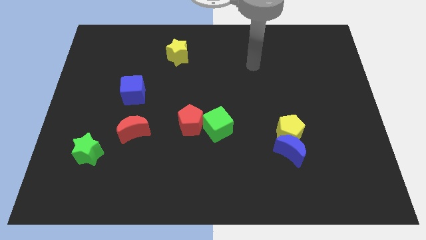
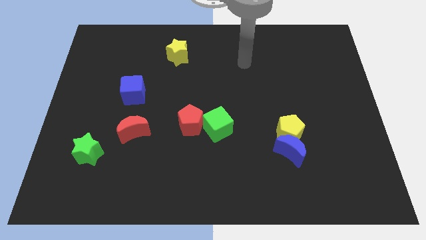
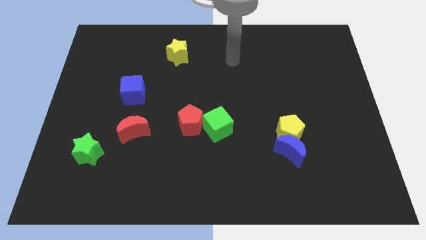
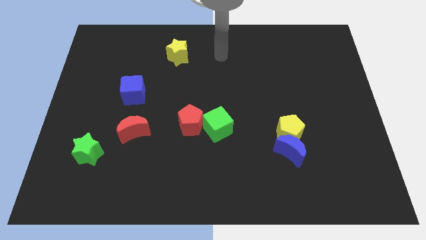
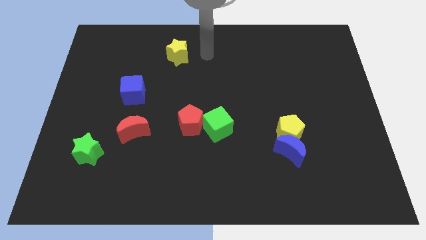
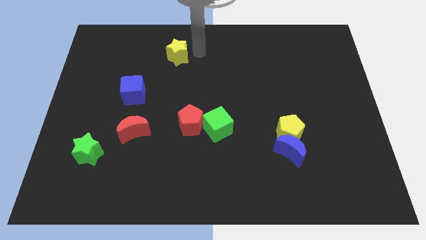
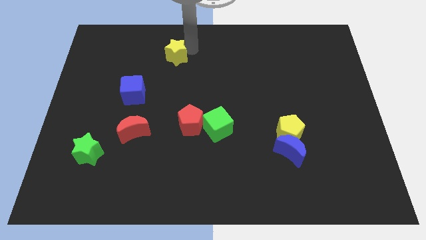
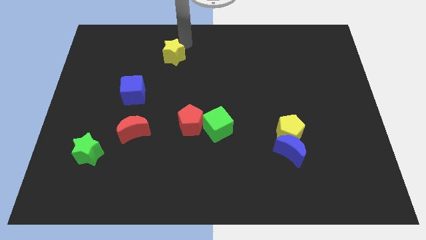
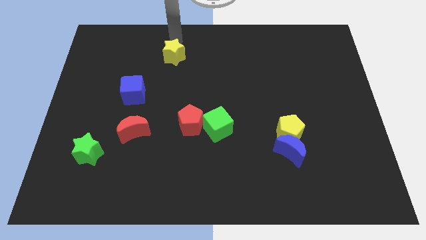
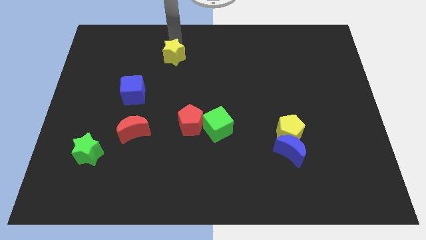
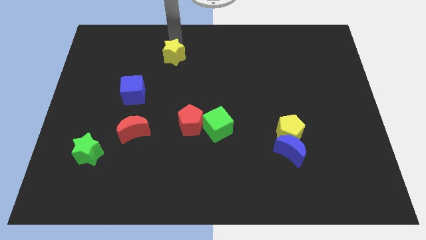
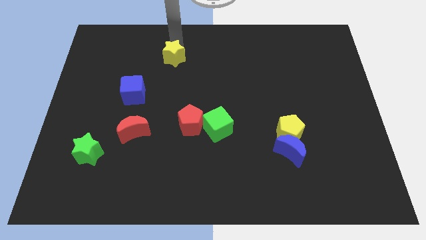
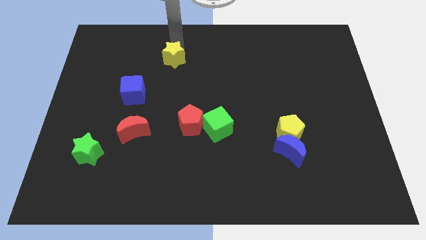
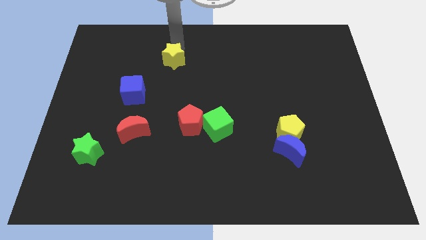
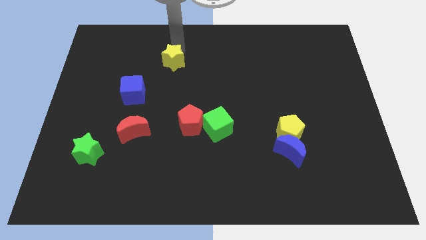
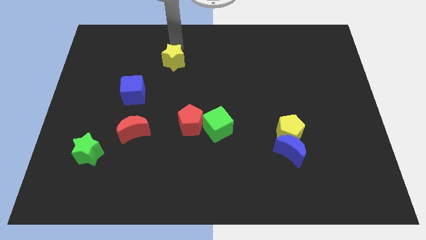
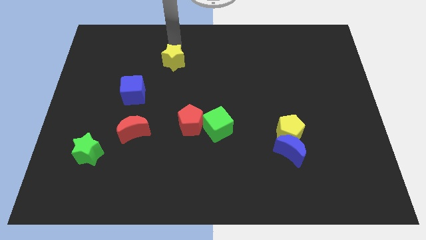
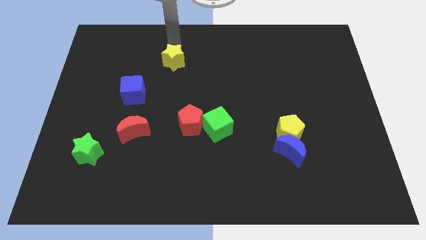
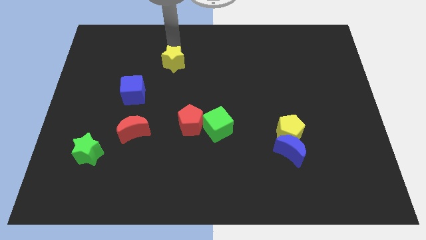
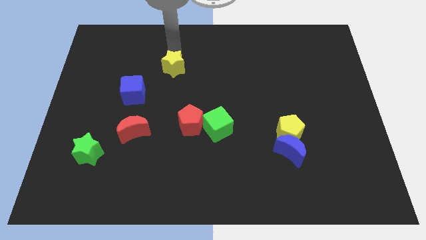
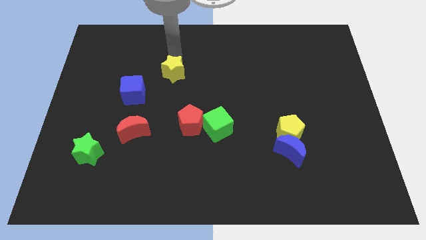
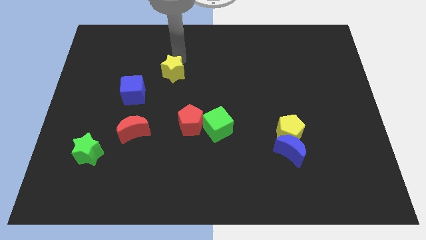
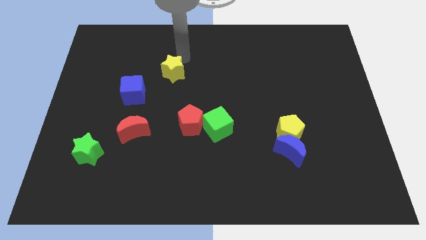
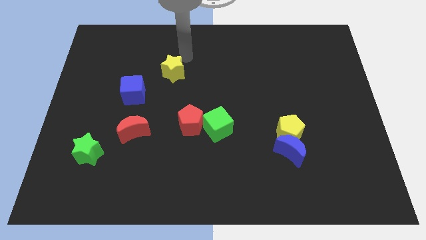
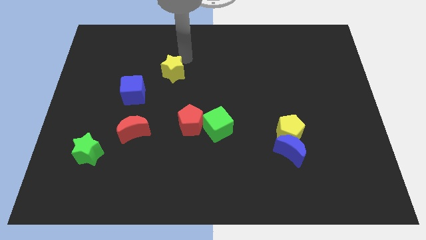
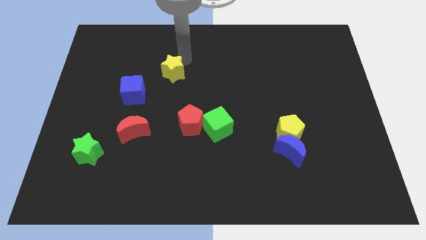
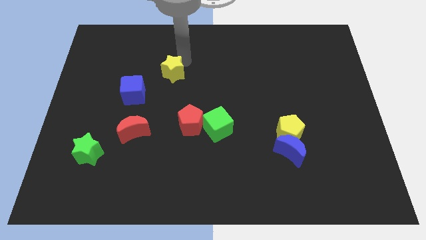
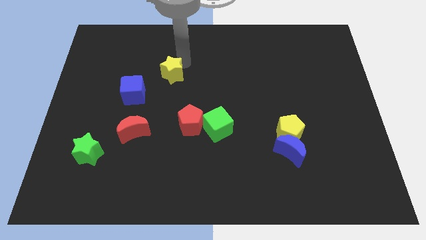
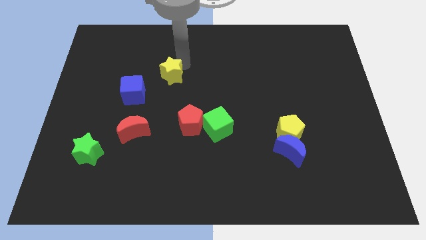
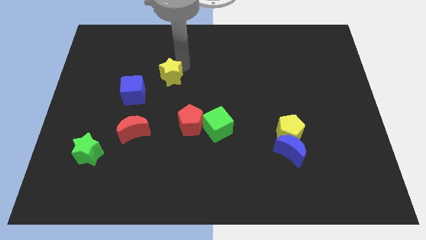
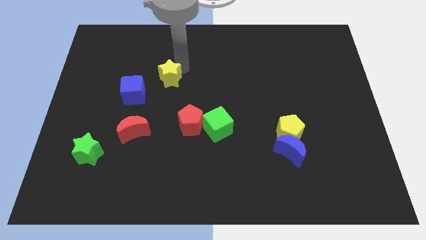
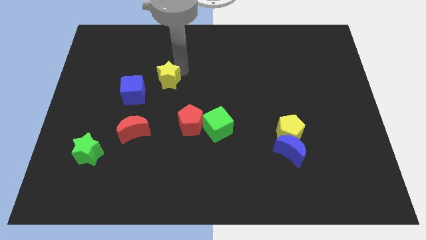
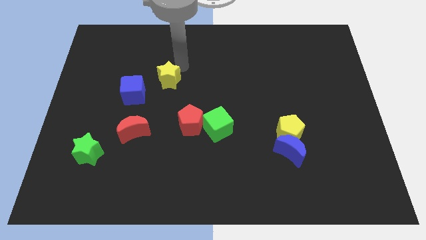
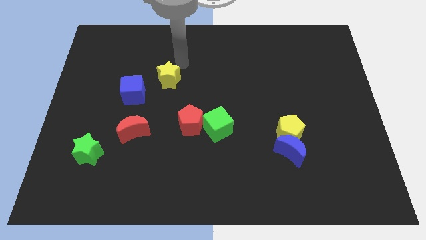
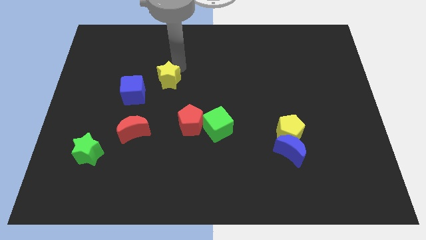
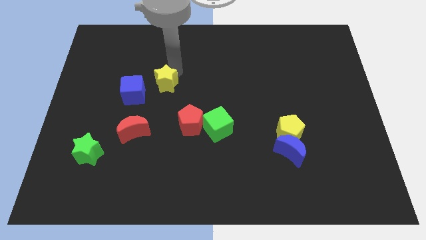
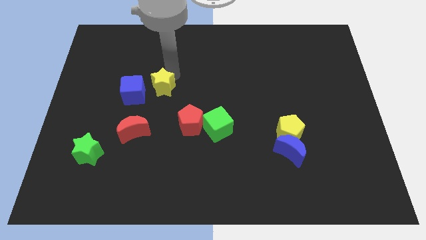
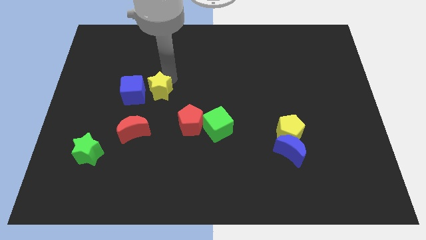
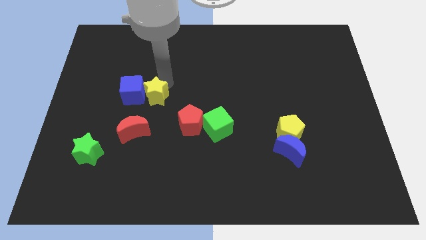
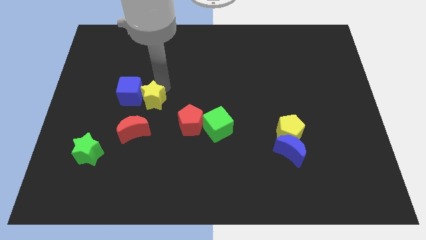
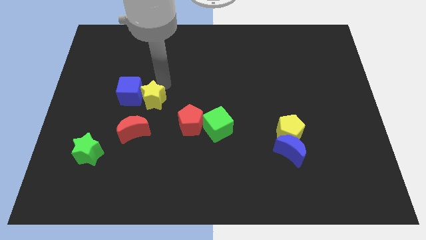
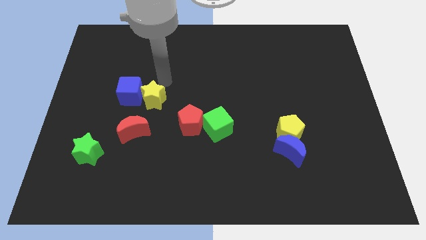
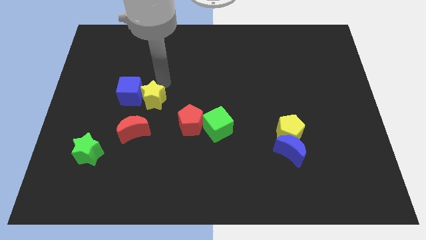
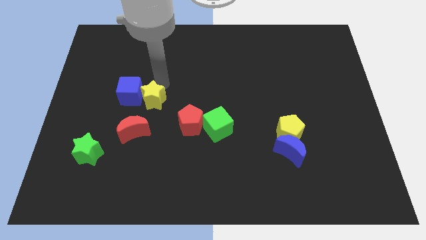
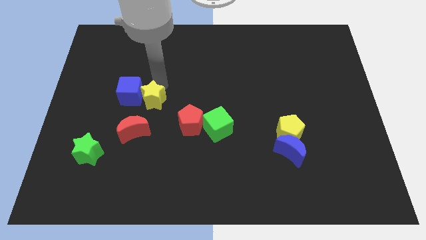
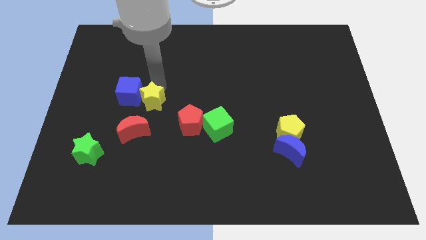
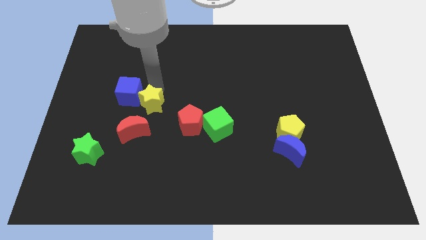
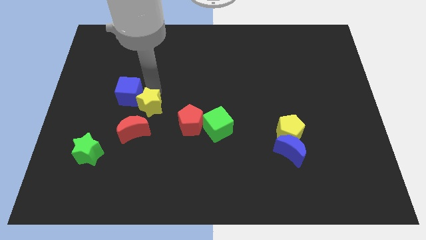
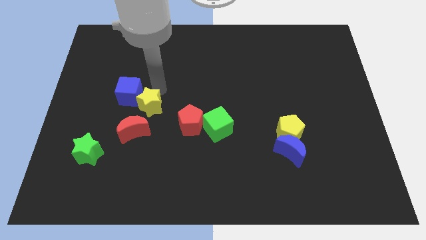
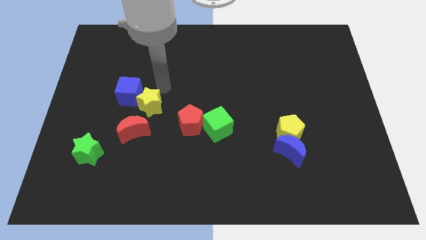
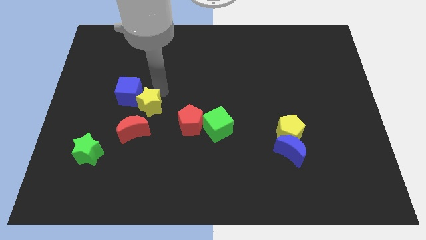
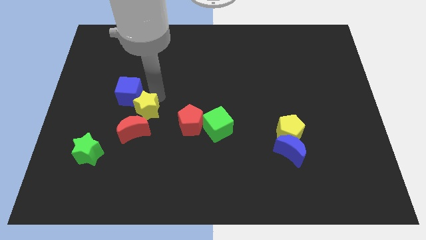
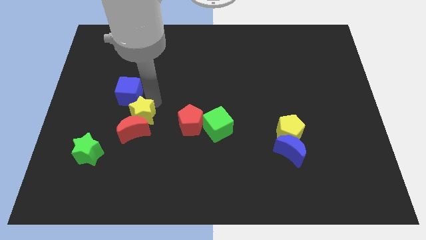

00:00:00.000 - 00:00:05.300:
push the yellow star to the red moon

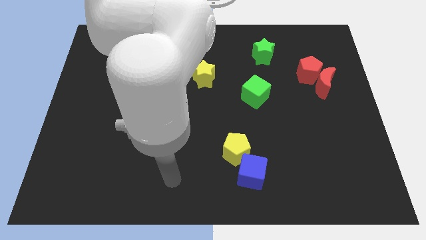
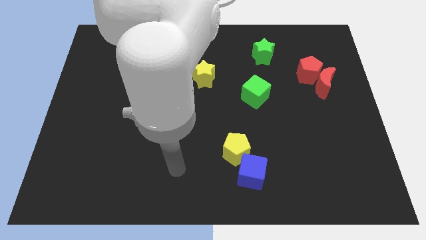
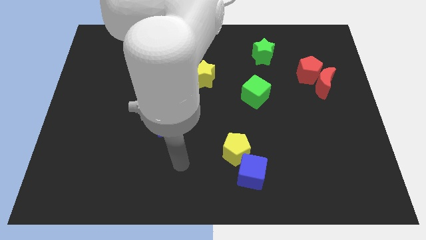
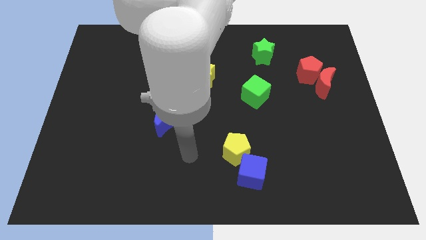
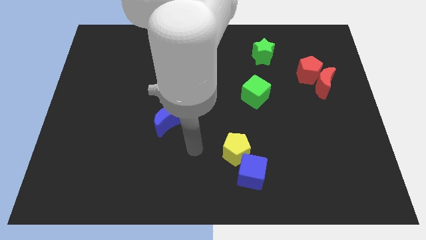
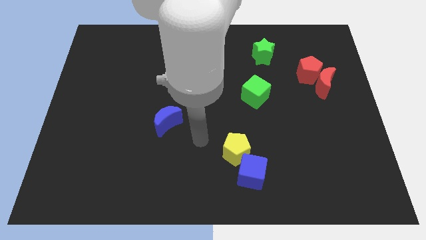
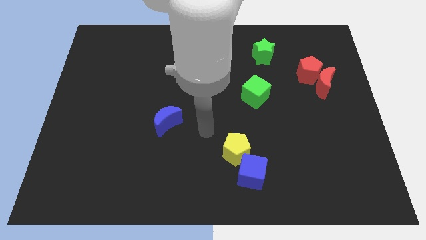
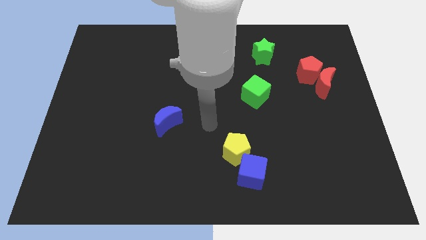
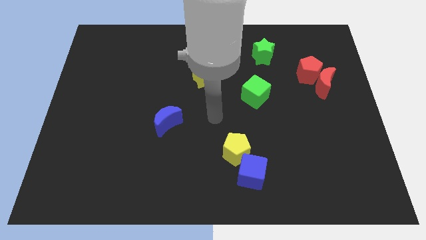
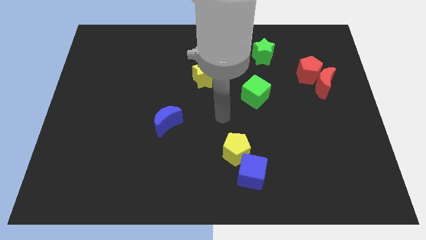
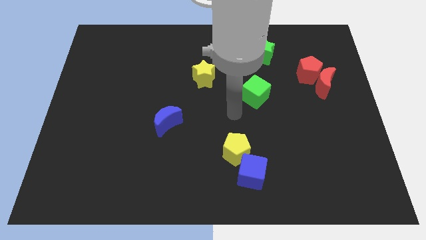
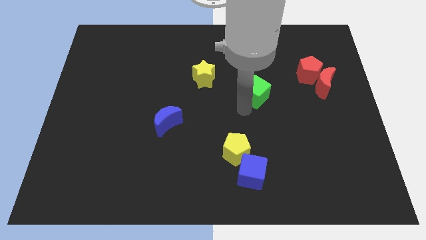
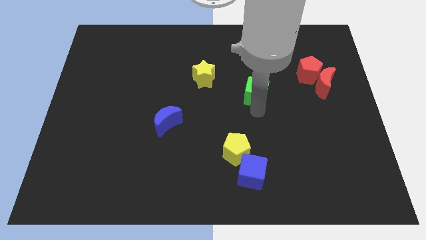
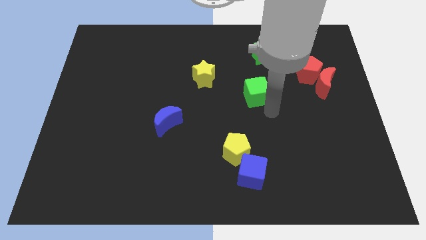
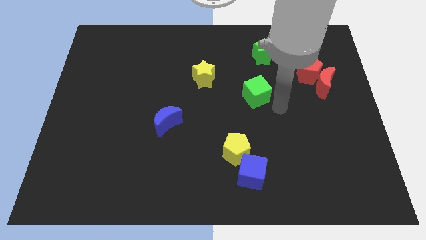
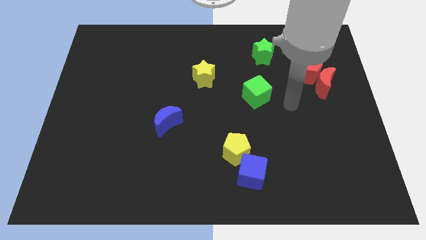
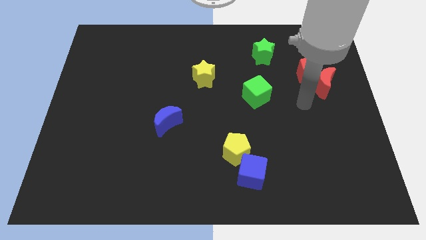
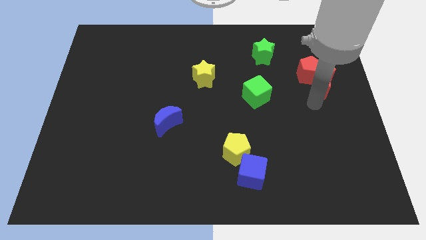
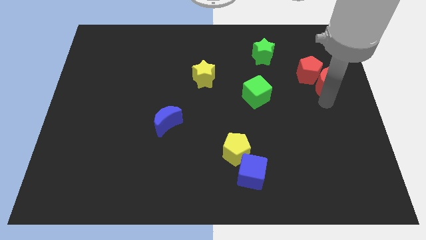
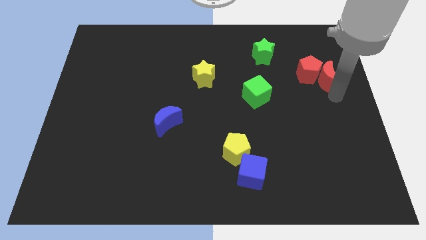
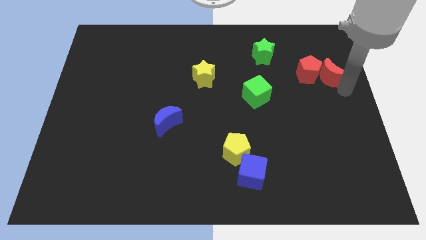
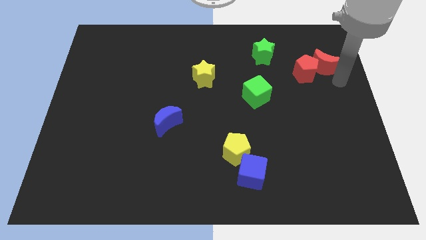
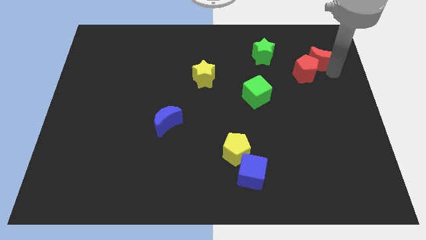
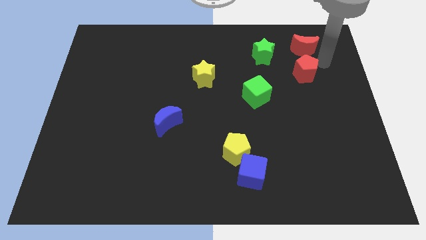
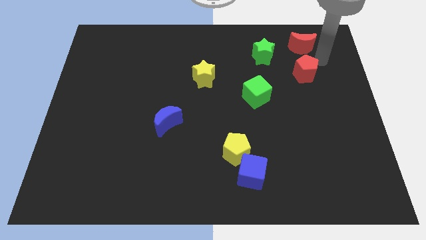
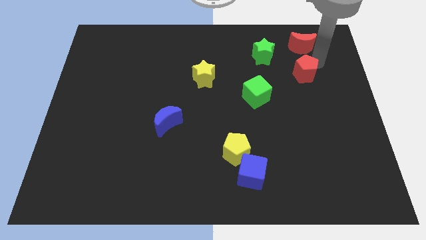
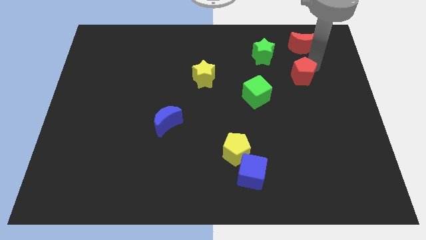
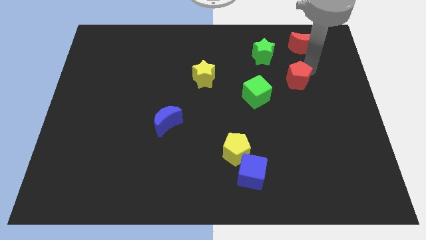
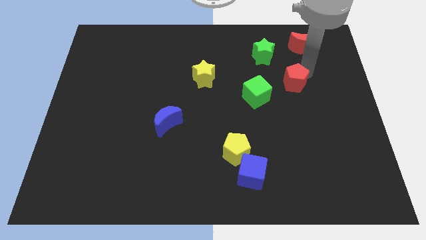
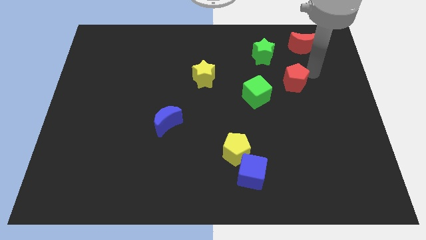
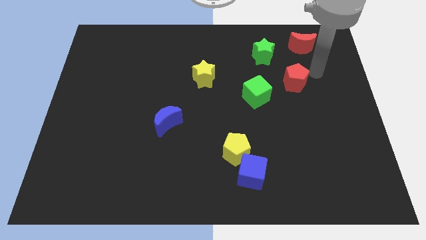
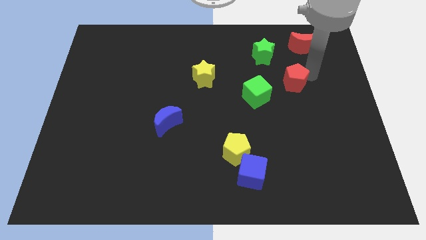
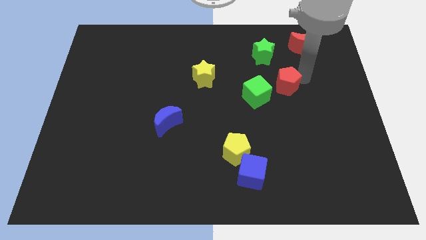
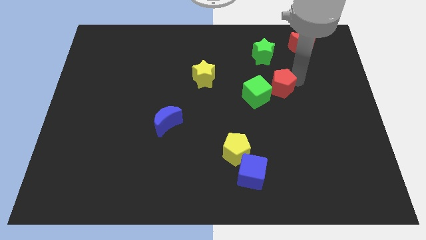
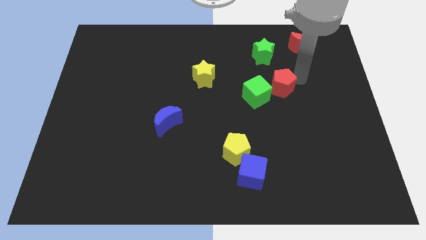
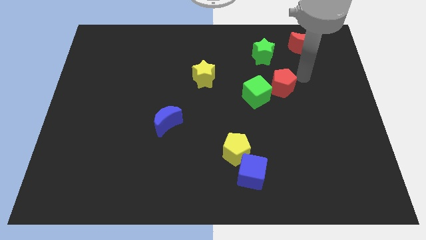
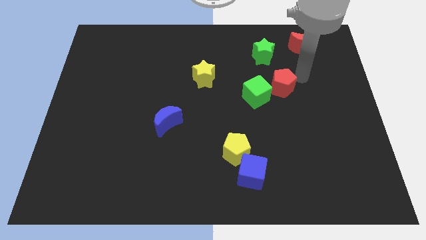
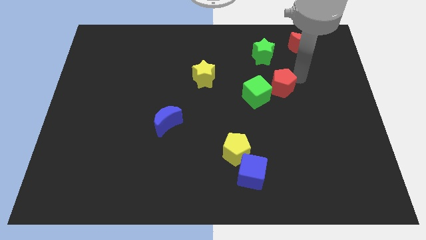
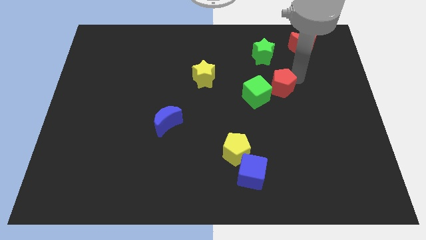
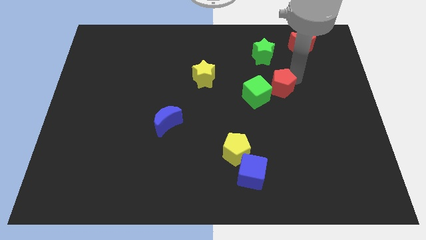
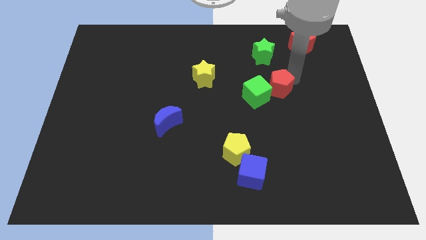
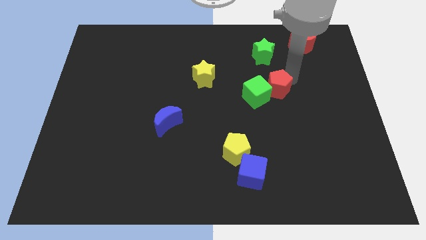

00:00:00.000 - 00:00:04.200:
put the red pentagon next to the green cube
